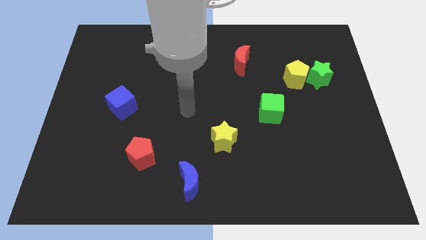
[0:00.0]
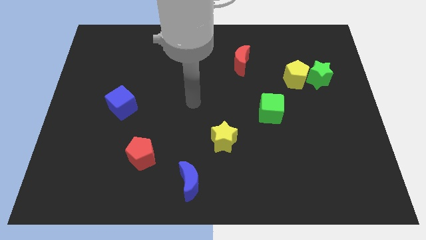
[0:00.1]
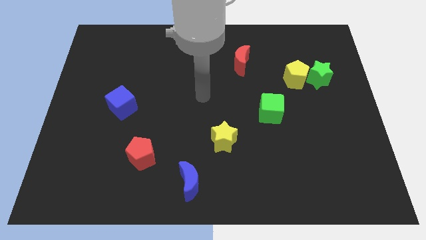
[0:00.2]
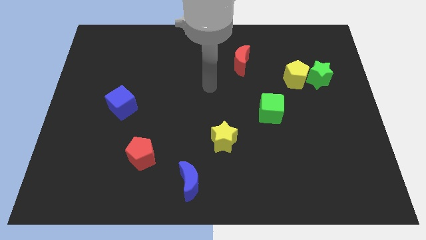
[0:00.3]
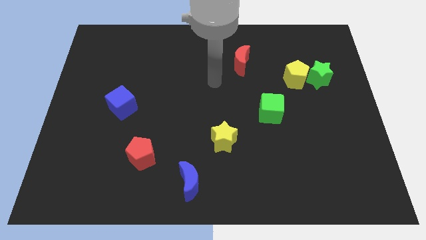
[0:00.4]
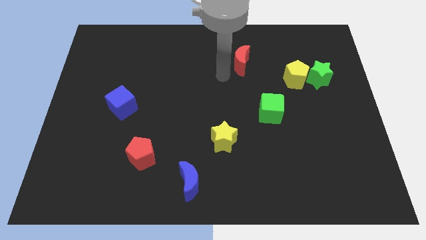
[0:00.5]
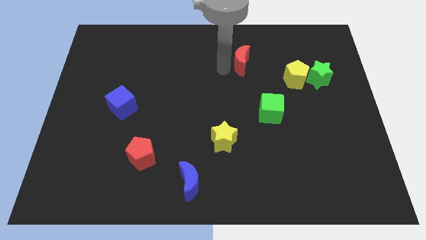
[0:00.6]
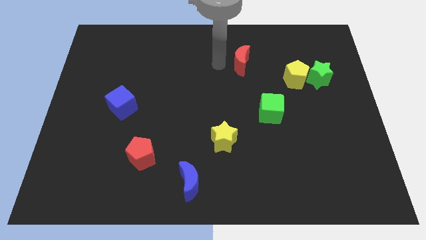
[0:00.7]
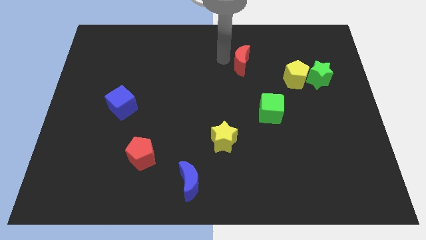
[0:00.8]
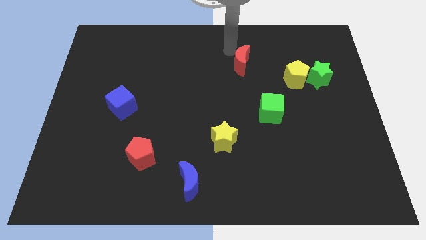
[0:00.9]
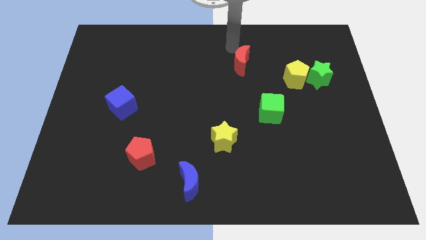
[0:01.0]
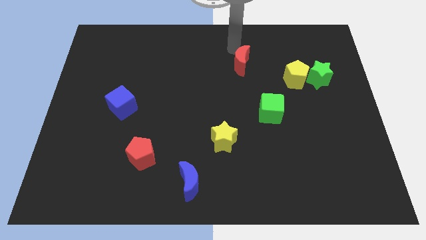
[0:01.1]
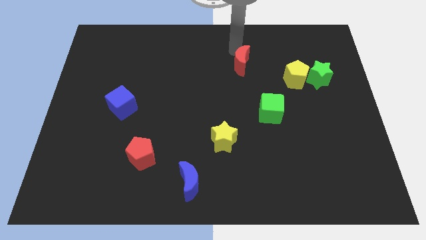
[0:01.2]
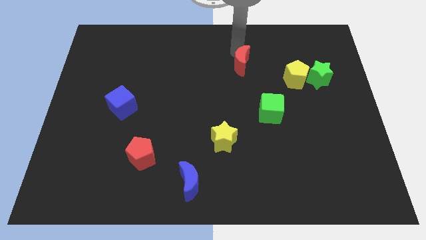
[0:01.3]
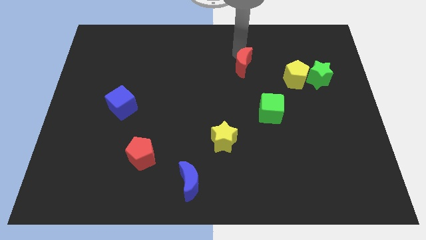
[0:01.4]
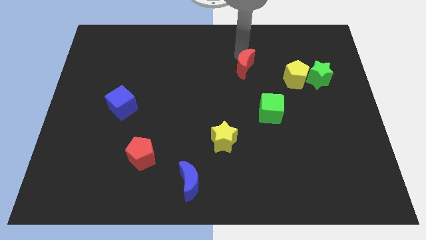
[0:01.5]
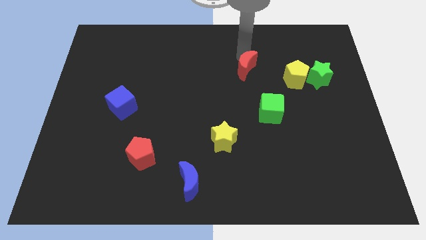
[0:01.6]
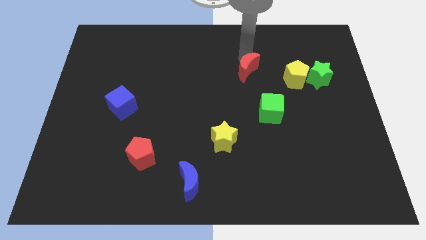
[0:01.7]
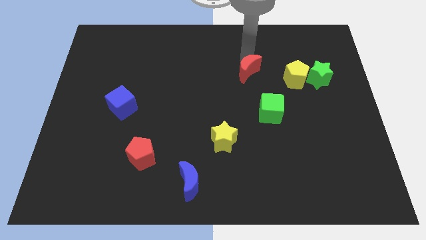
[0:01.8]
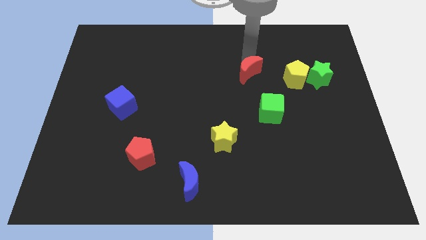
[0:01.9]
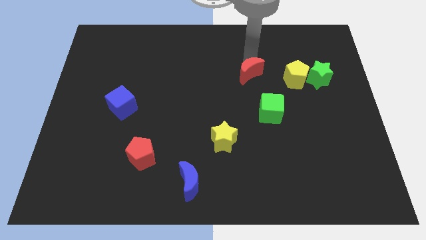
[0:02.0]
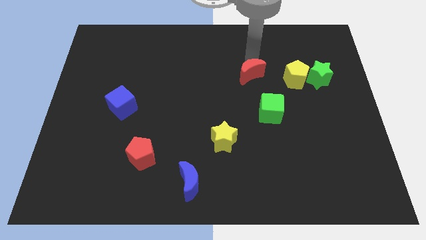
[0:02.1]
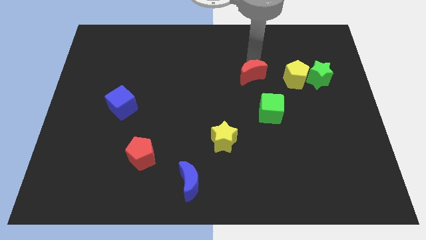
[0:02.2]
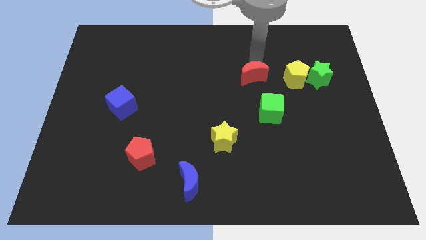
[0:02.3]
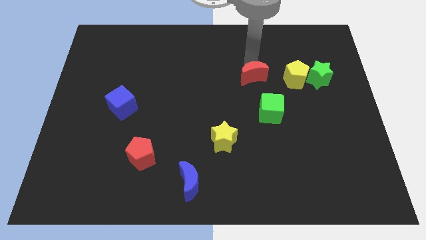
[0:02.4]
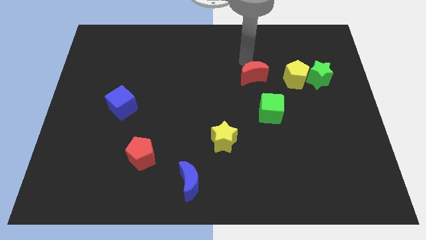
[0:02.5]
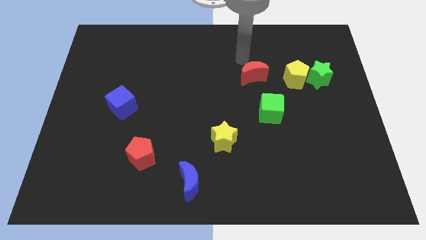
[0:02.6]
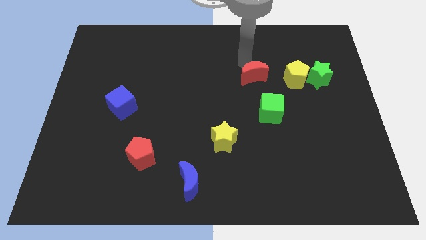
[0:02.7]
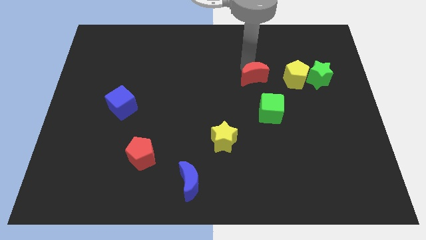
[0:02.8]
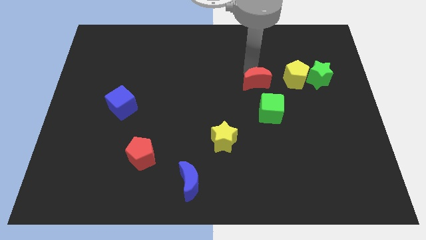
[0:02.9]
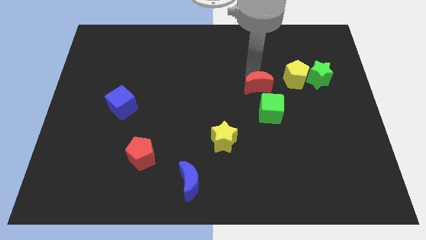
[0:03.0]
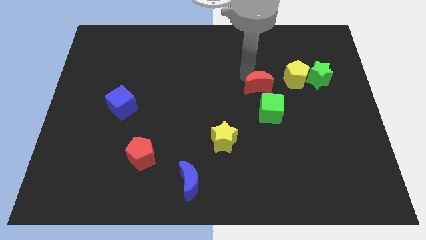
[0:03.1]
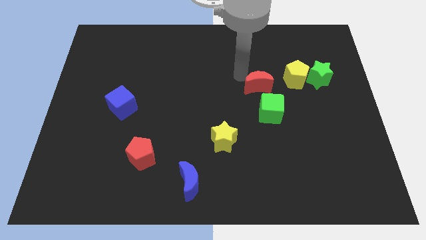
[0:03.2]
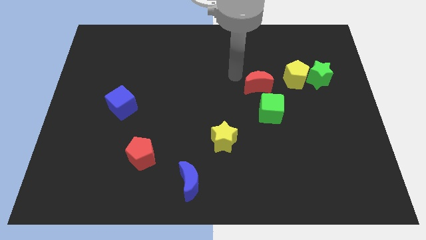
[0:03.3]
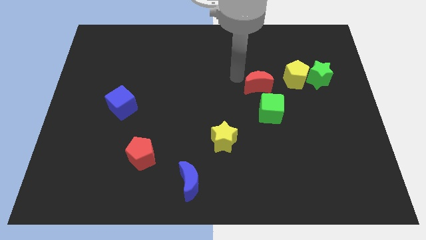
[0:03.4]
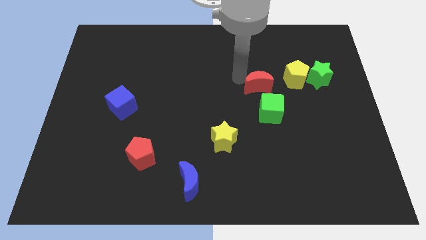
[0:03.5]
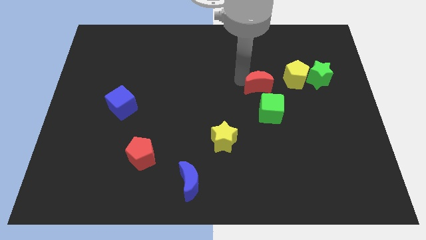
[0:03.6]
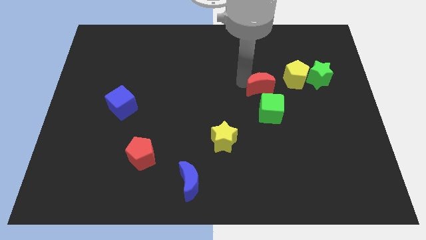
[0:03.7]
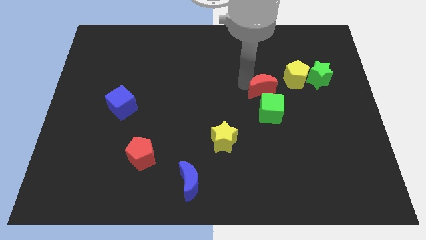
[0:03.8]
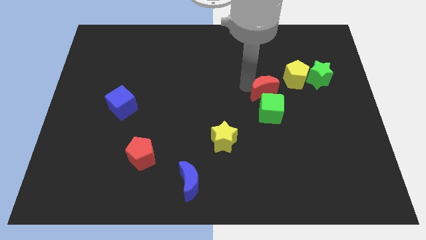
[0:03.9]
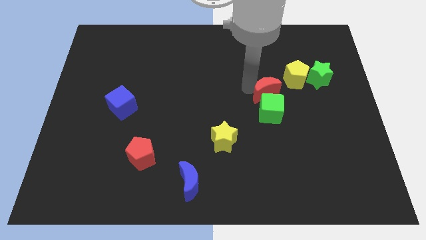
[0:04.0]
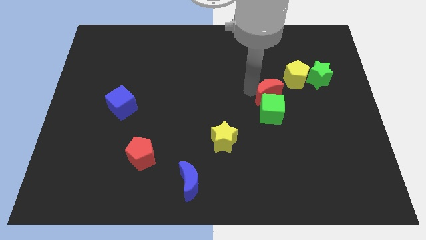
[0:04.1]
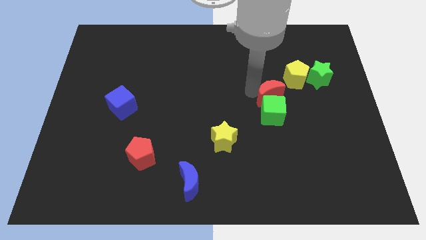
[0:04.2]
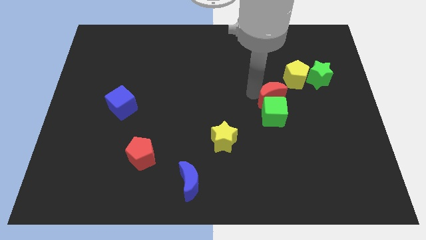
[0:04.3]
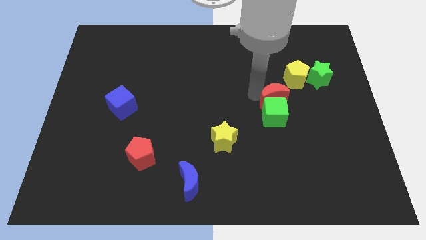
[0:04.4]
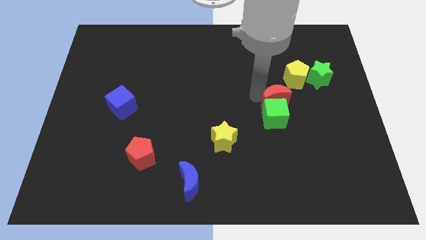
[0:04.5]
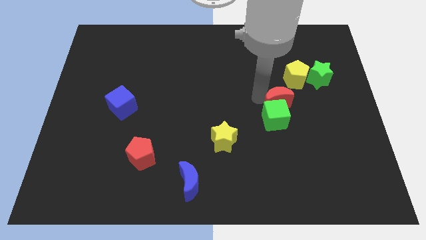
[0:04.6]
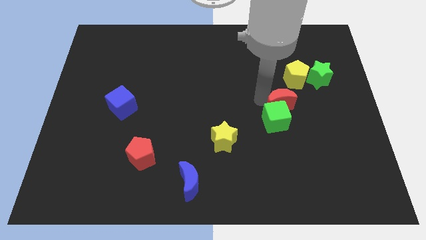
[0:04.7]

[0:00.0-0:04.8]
move the red moon to the bottom side of the yellow pentagon

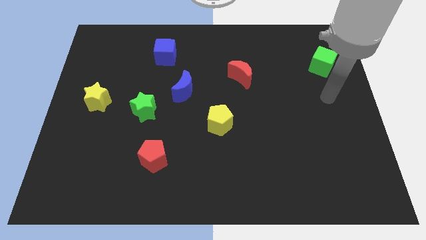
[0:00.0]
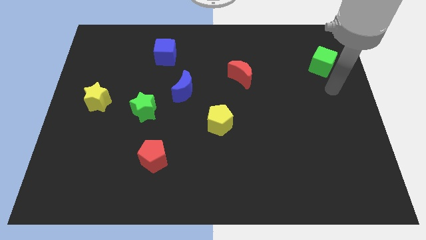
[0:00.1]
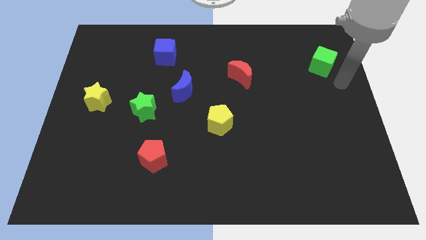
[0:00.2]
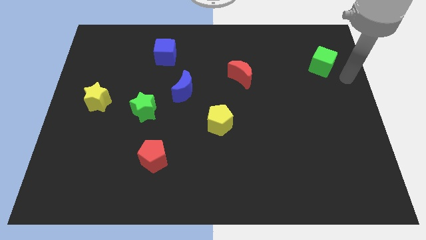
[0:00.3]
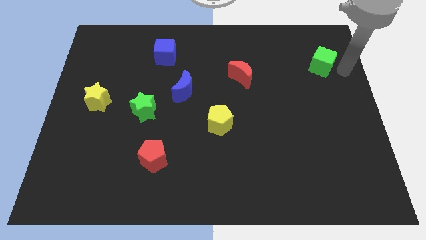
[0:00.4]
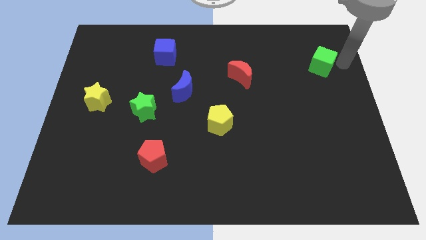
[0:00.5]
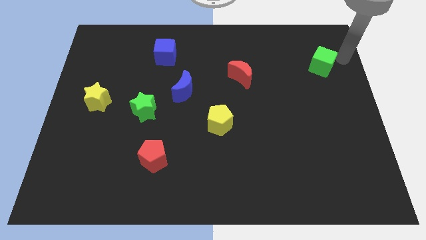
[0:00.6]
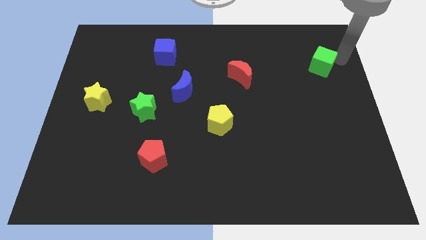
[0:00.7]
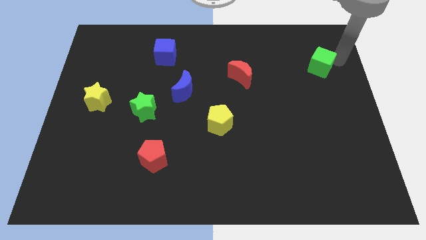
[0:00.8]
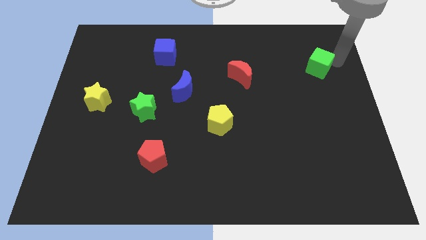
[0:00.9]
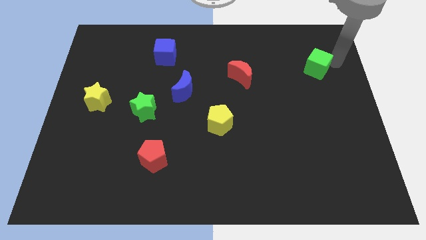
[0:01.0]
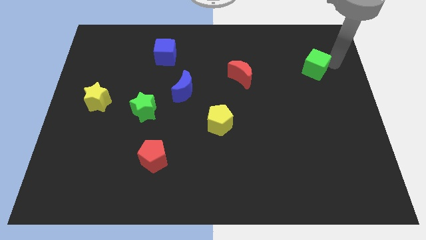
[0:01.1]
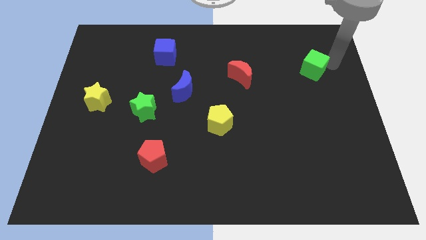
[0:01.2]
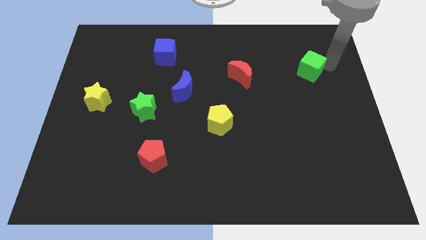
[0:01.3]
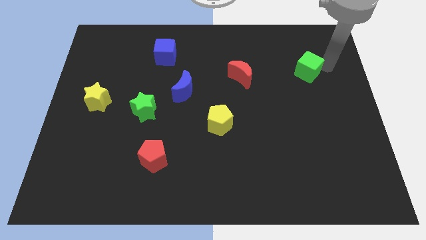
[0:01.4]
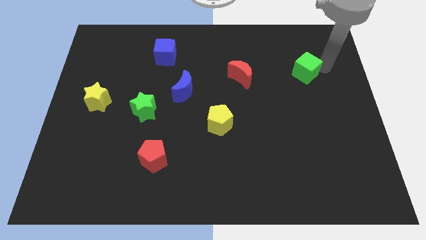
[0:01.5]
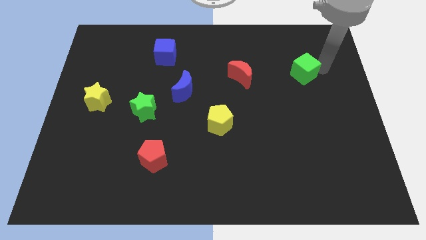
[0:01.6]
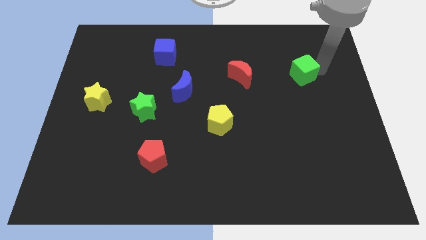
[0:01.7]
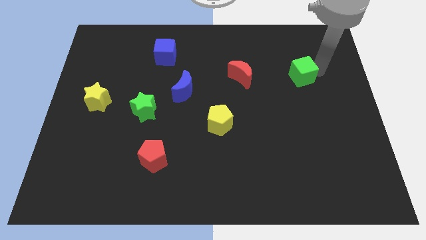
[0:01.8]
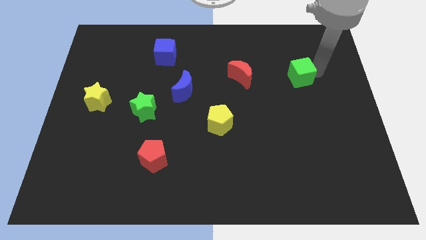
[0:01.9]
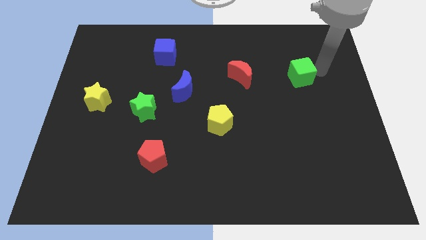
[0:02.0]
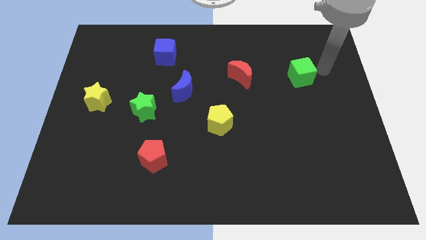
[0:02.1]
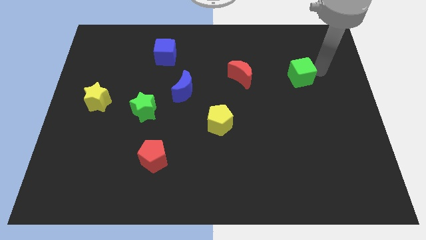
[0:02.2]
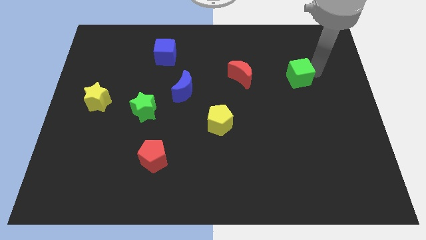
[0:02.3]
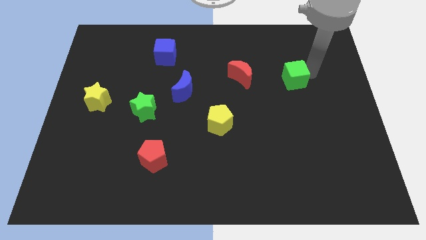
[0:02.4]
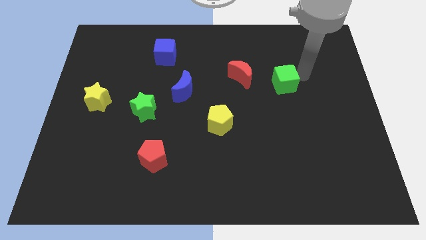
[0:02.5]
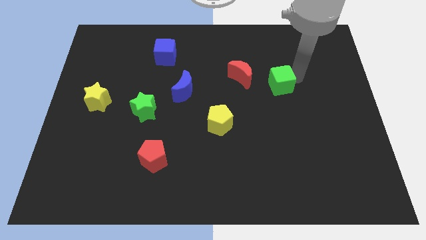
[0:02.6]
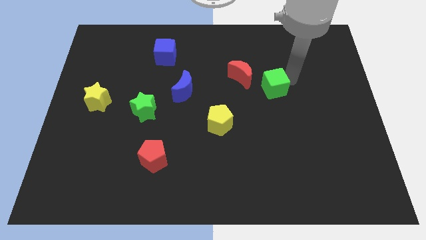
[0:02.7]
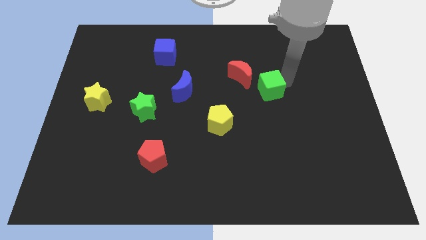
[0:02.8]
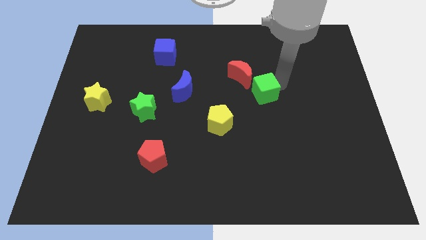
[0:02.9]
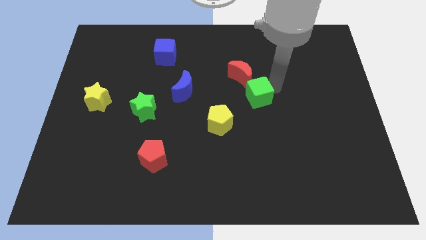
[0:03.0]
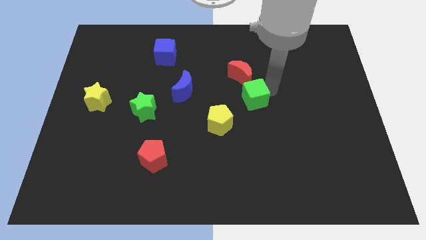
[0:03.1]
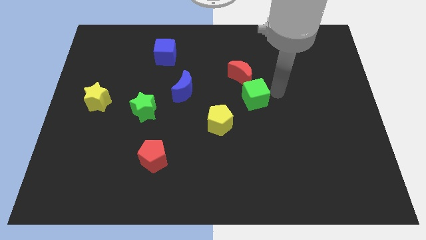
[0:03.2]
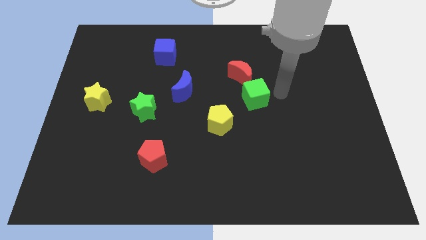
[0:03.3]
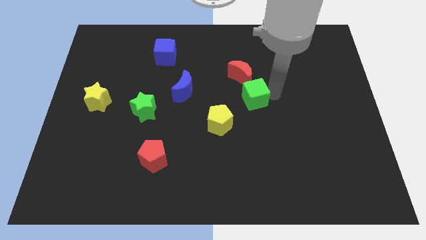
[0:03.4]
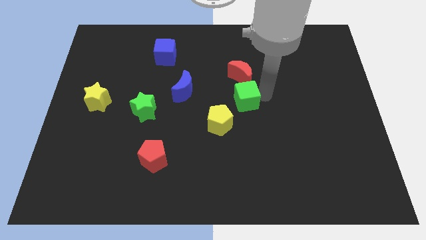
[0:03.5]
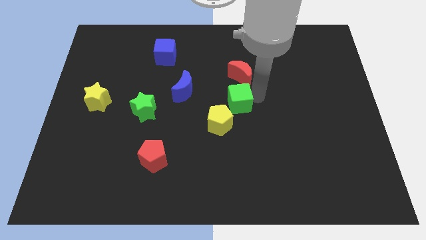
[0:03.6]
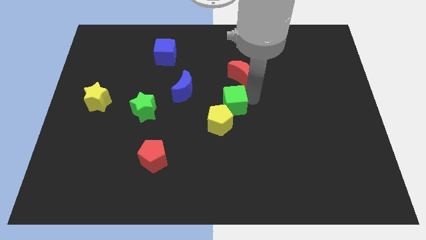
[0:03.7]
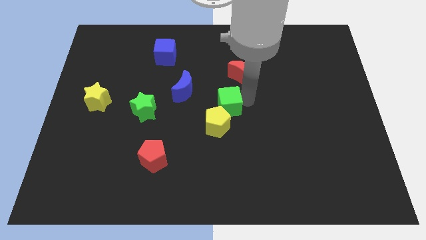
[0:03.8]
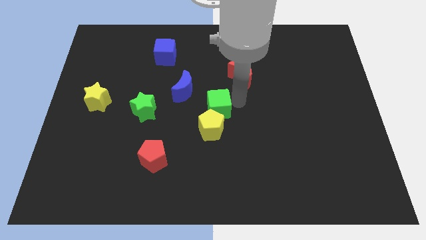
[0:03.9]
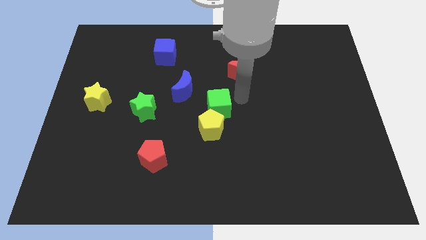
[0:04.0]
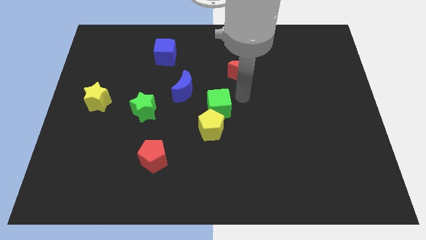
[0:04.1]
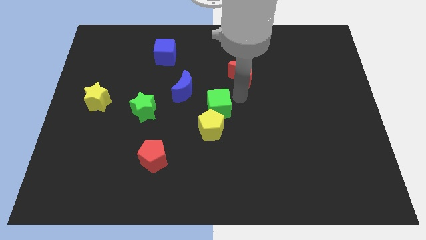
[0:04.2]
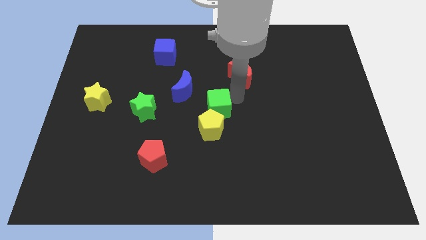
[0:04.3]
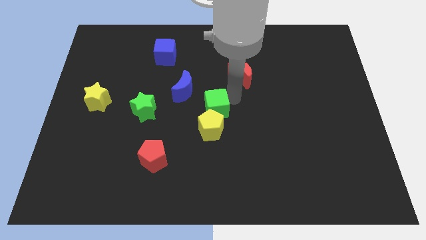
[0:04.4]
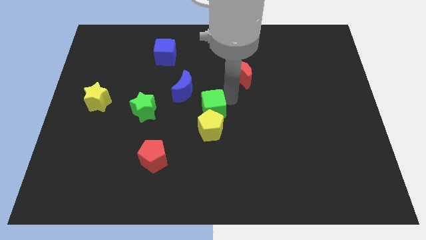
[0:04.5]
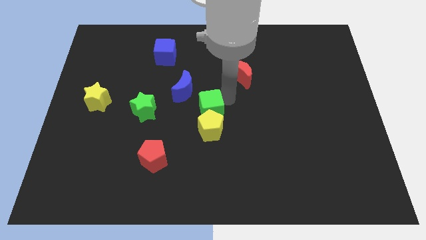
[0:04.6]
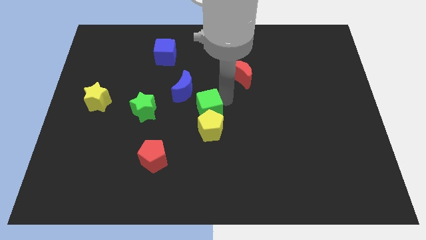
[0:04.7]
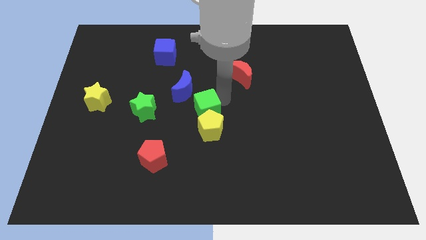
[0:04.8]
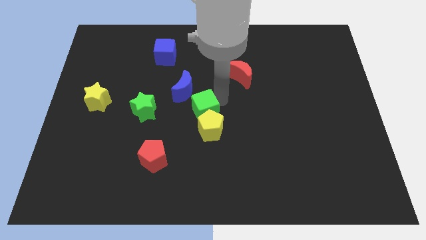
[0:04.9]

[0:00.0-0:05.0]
push the green cube to the bottom side of the blue moon
